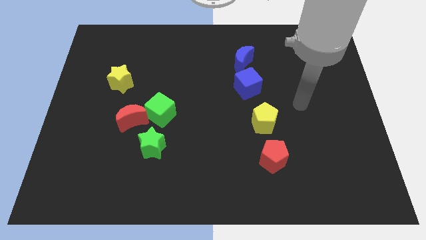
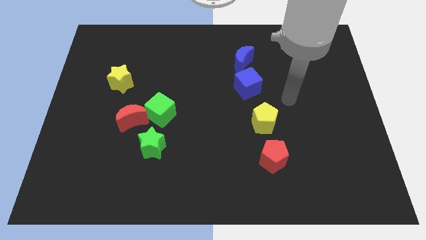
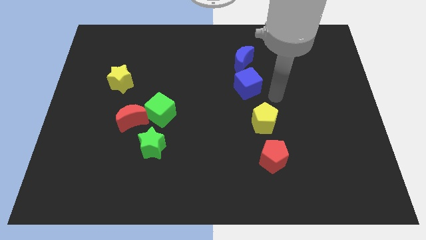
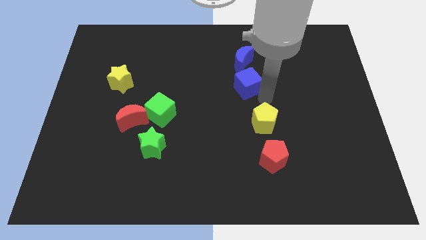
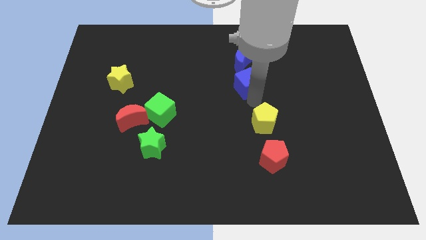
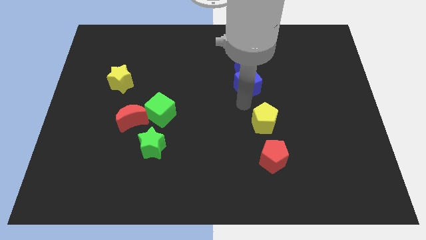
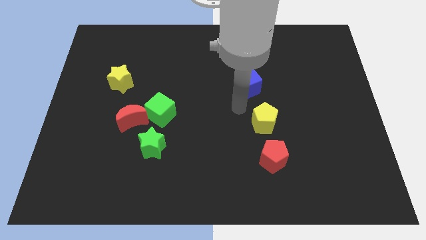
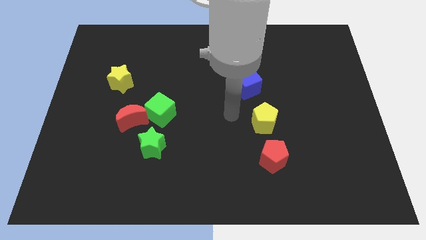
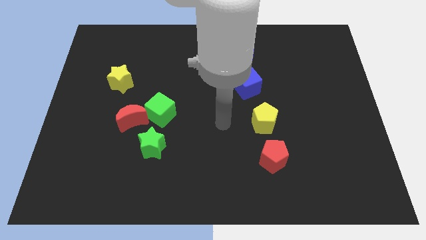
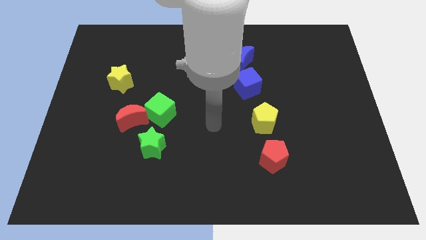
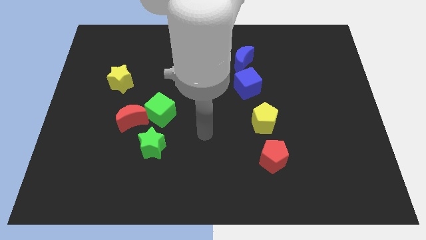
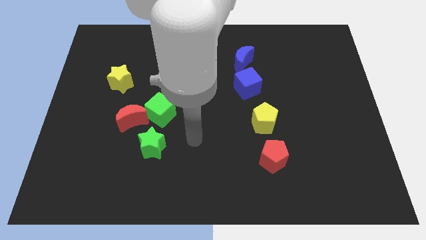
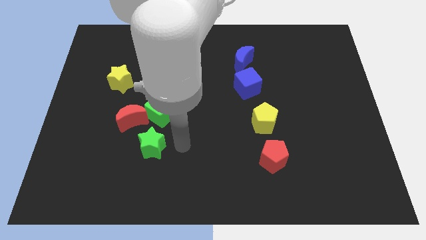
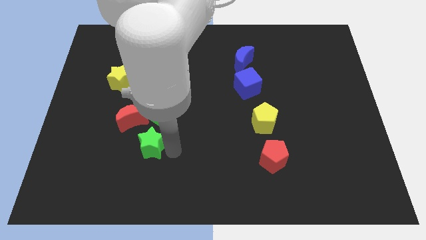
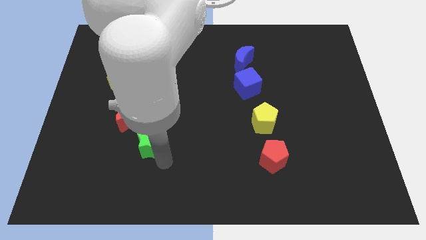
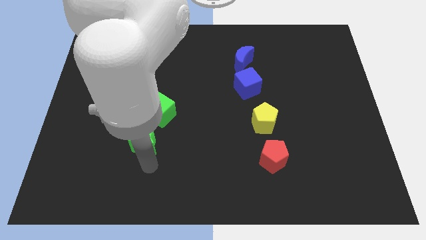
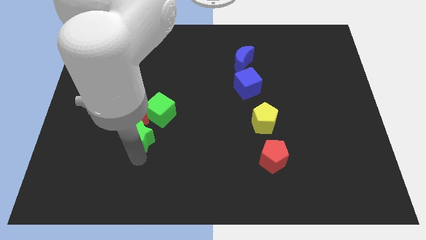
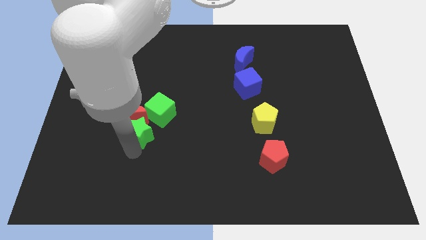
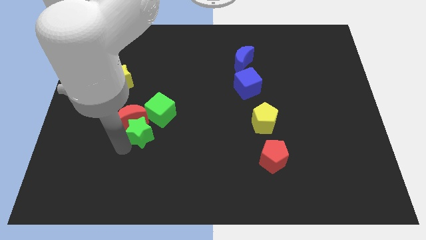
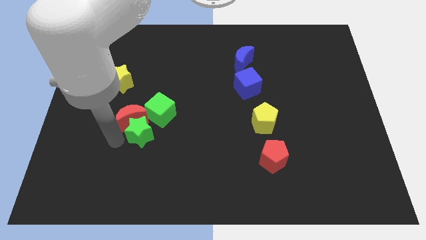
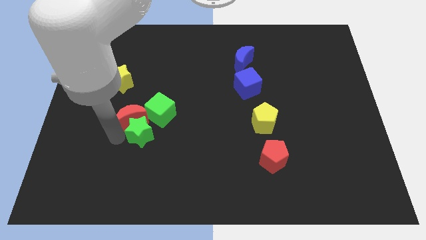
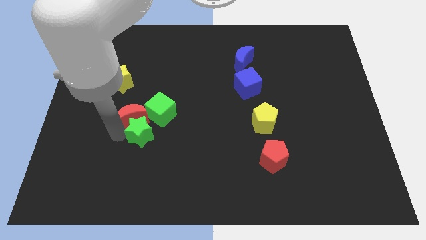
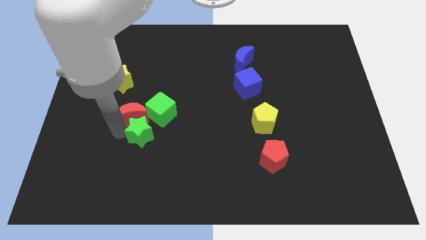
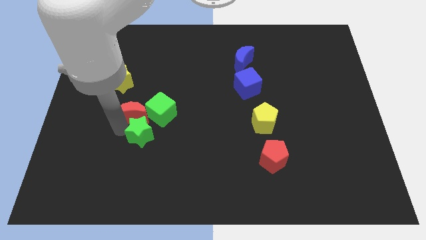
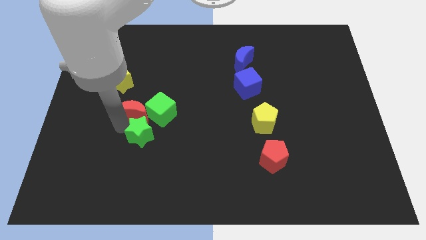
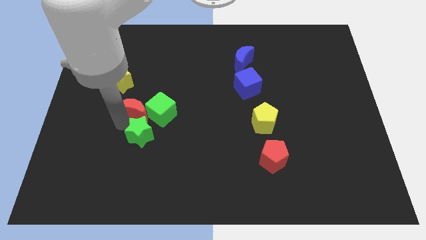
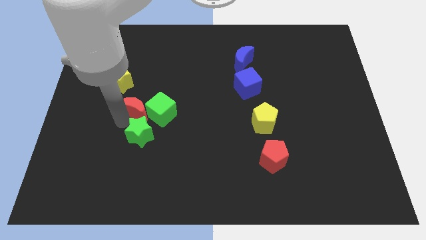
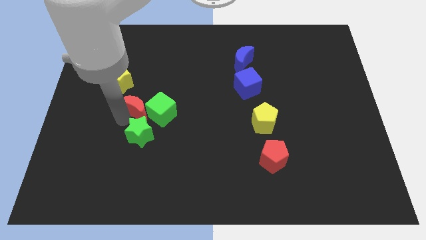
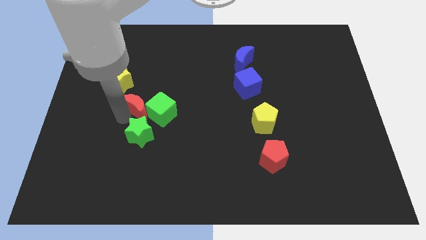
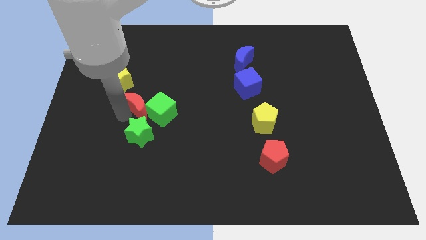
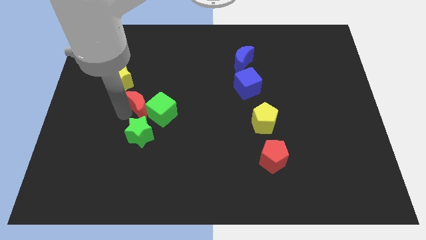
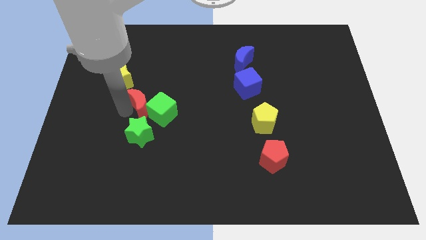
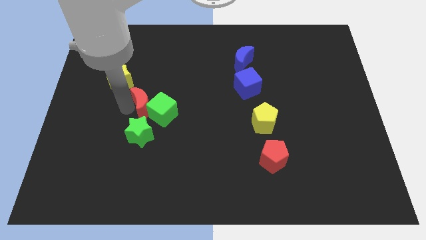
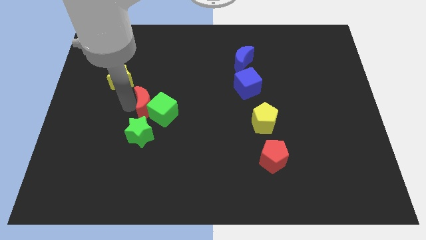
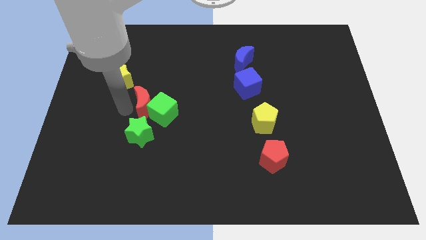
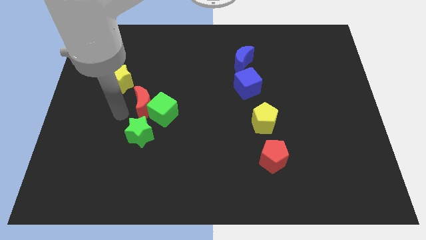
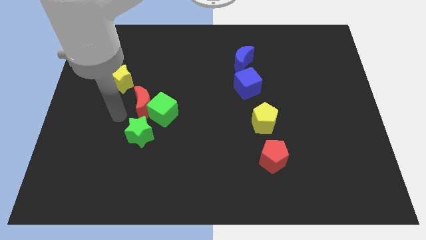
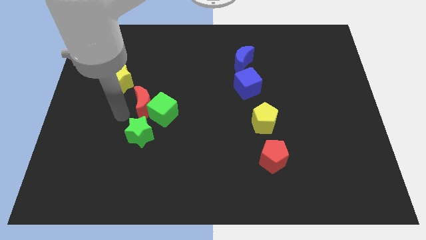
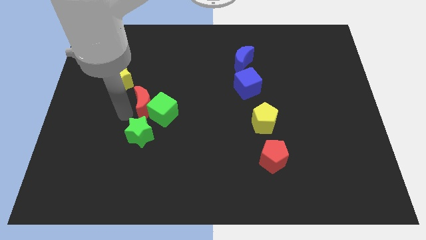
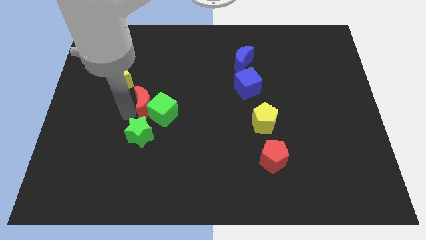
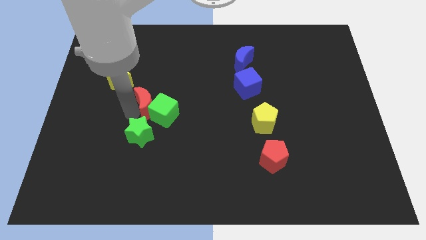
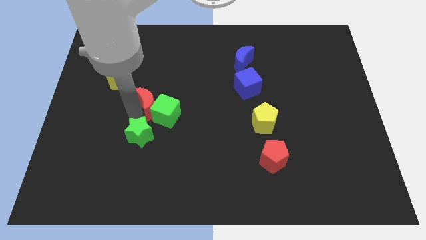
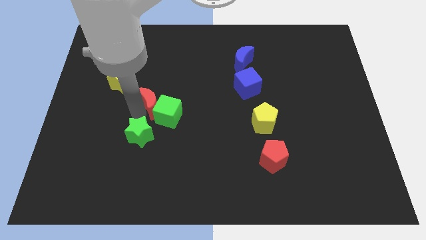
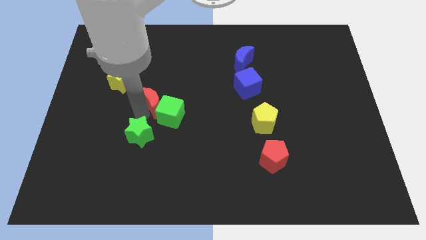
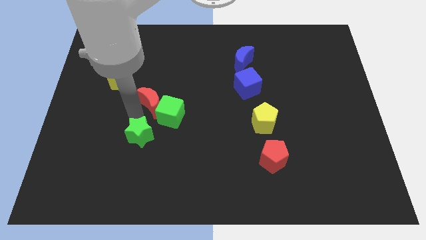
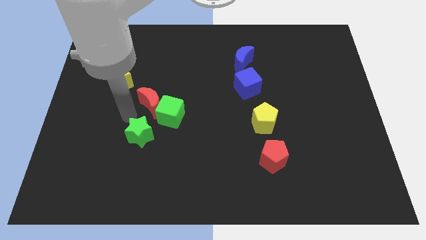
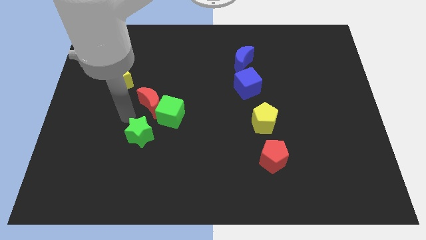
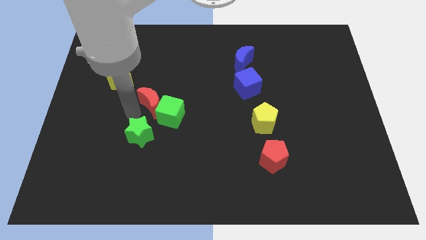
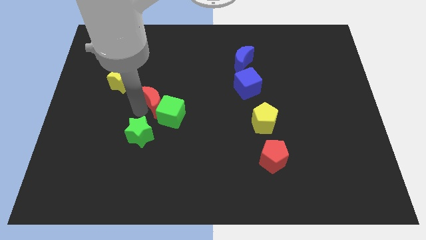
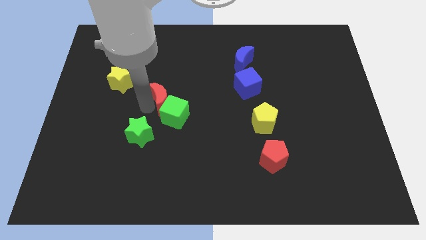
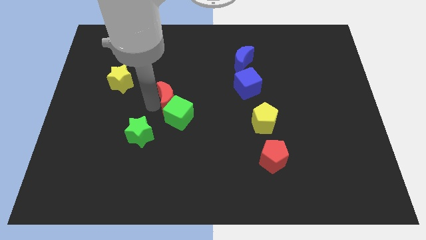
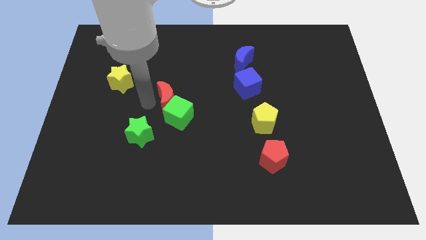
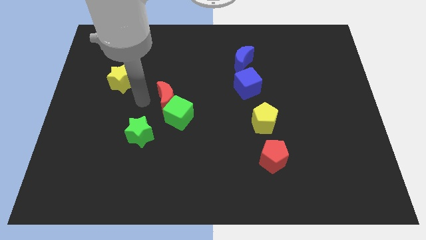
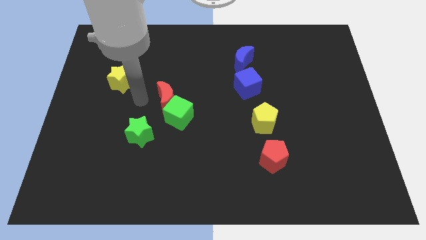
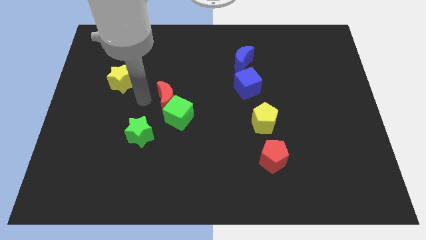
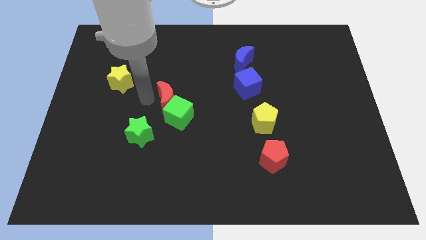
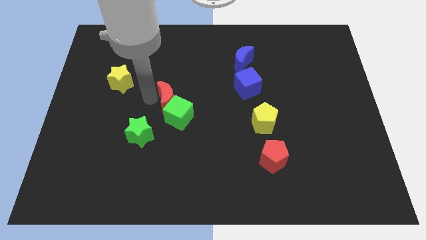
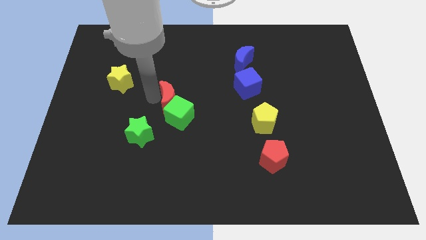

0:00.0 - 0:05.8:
move the red moon a bit to the right

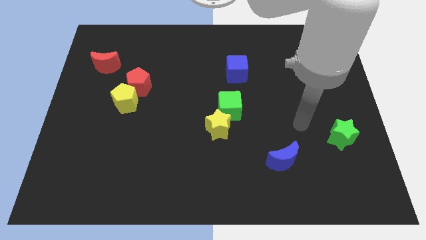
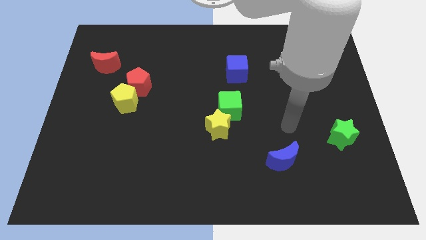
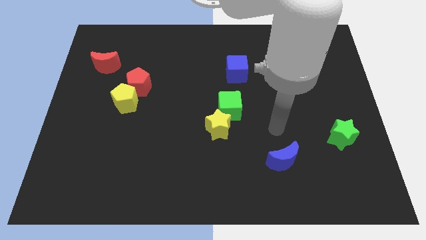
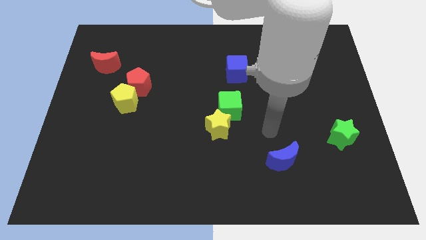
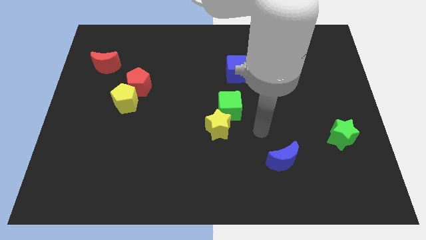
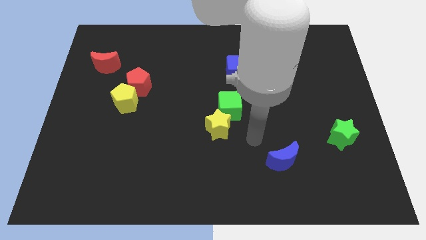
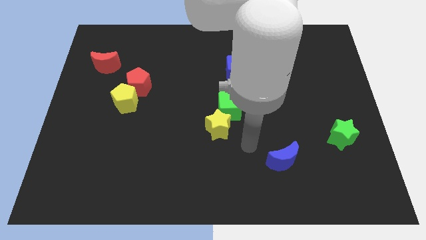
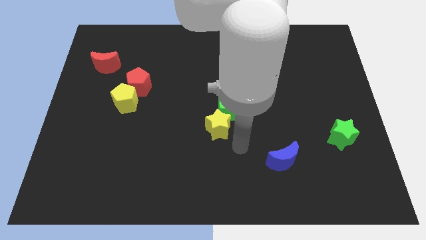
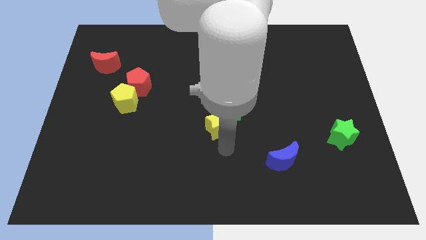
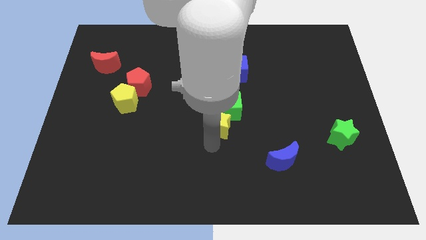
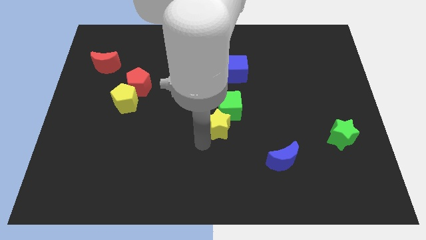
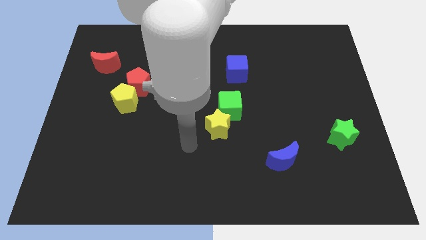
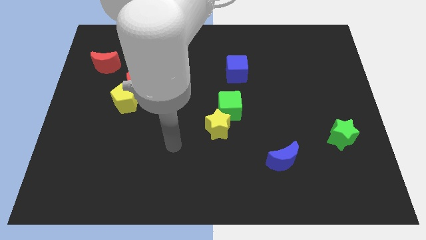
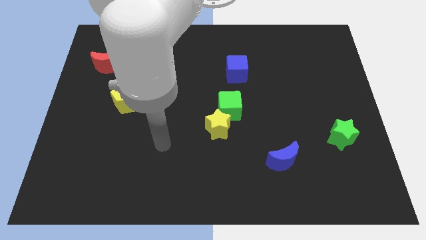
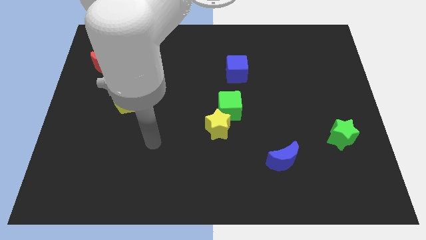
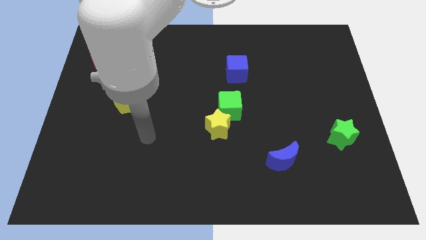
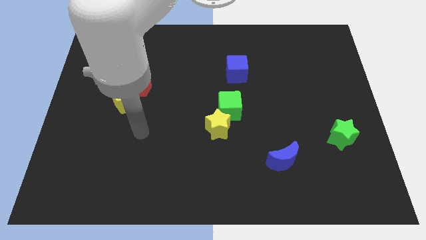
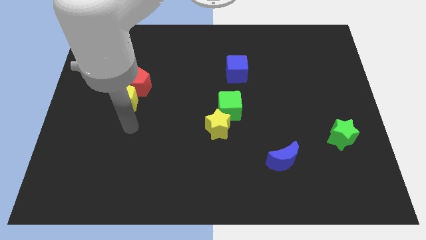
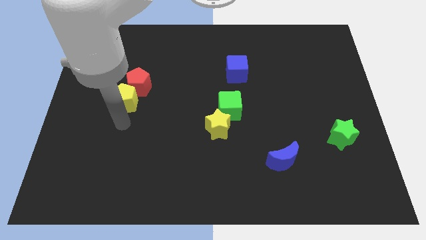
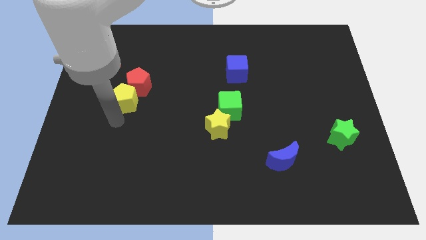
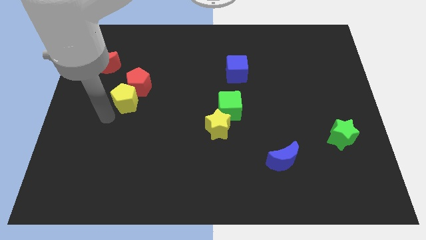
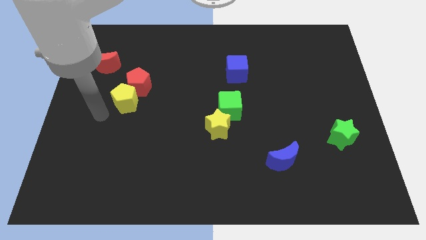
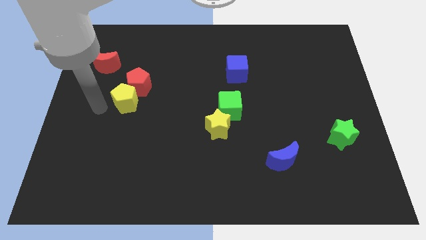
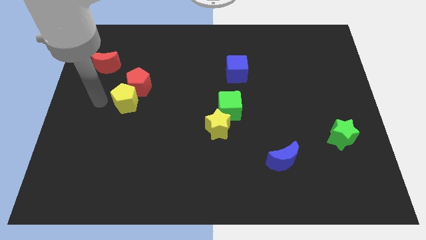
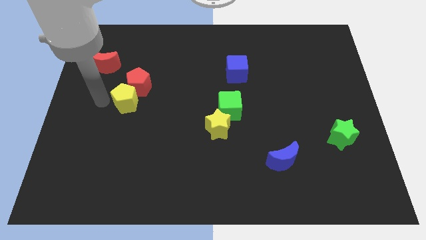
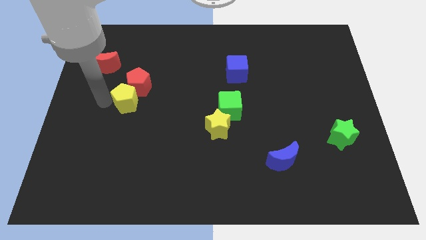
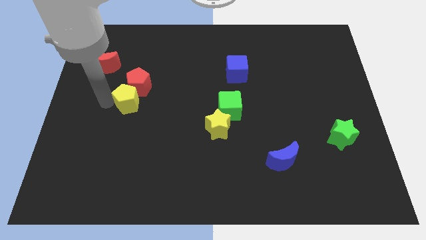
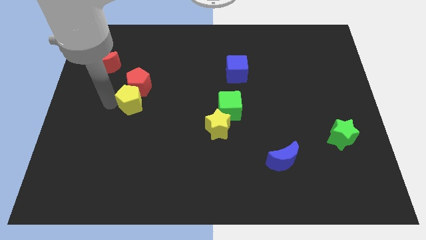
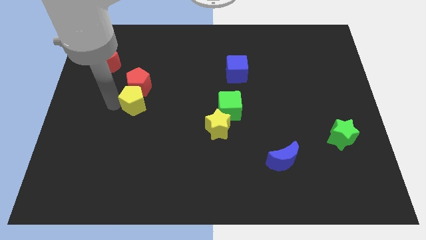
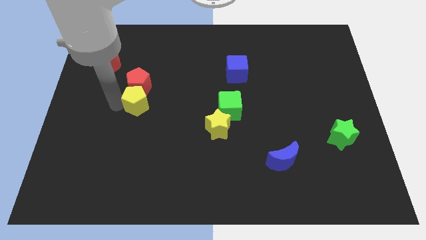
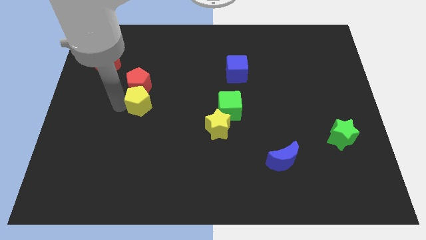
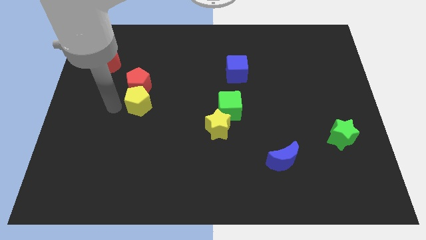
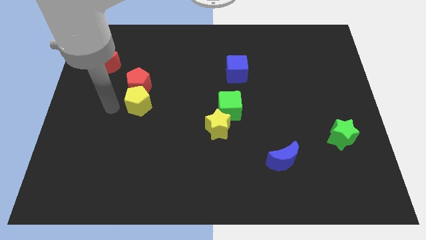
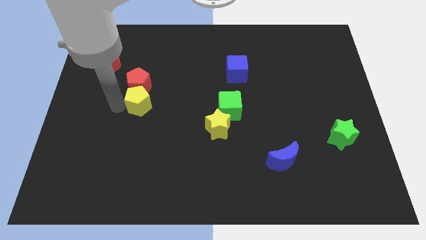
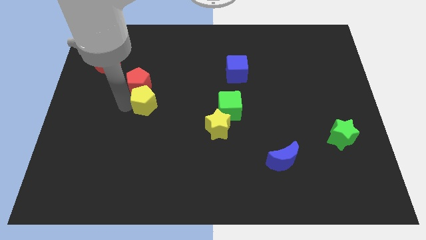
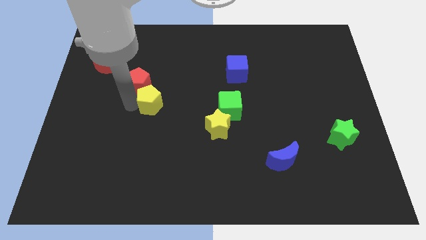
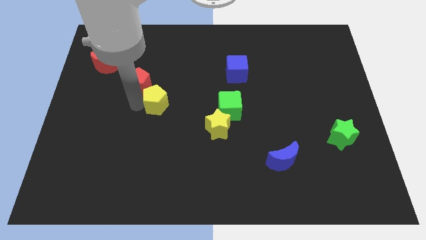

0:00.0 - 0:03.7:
slide the yellow pentagon to the right a little bit
